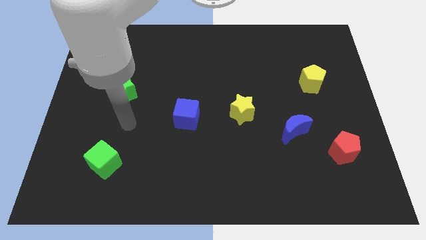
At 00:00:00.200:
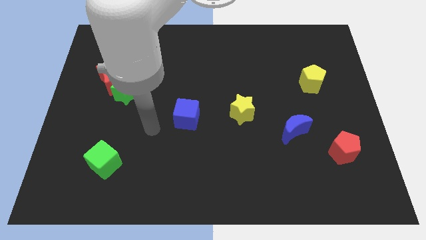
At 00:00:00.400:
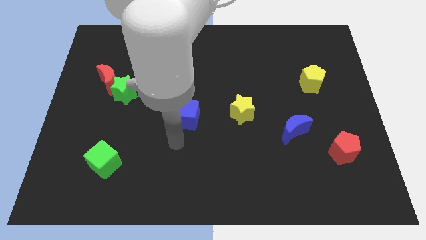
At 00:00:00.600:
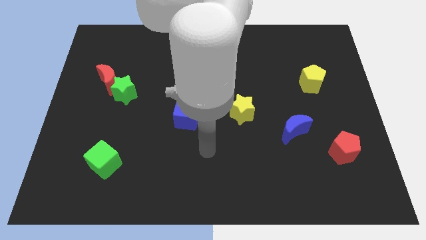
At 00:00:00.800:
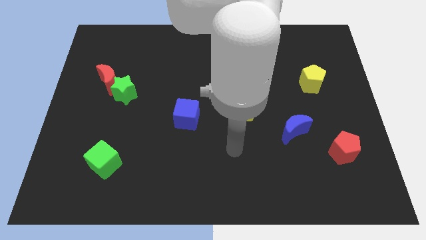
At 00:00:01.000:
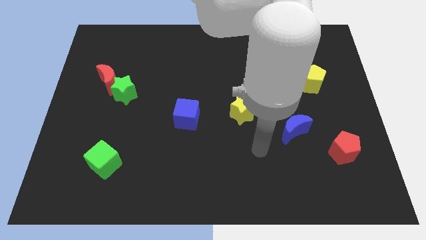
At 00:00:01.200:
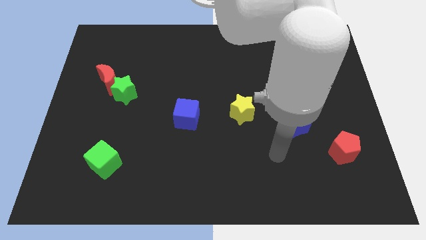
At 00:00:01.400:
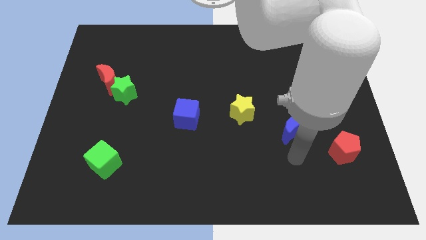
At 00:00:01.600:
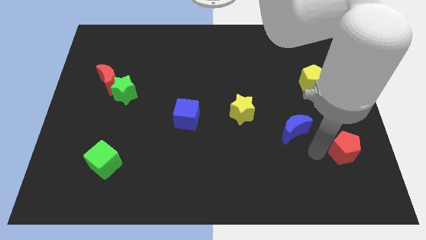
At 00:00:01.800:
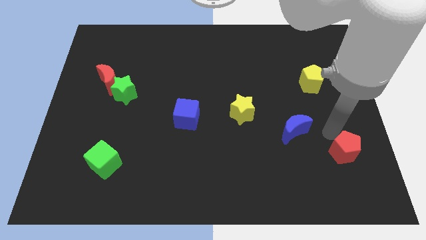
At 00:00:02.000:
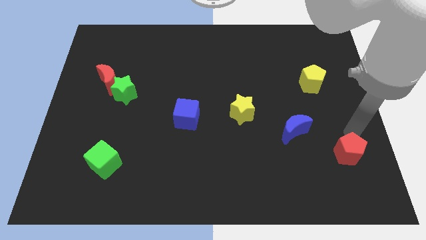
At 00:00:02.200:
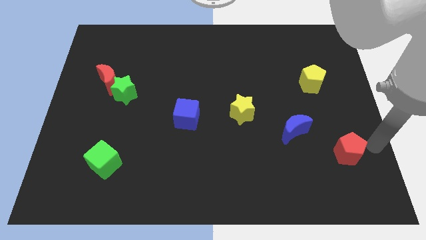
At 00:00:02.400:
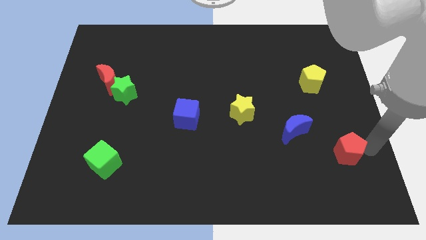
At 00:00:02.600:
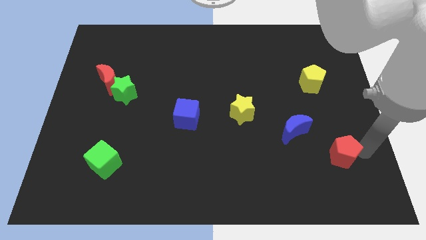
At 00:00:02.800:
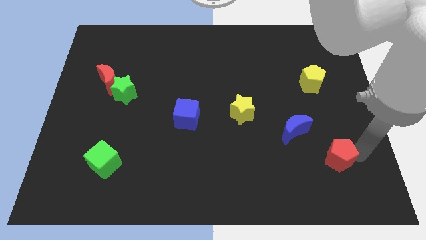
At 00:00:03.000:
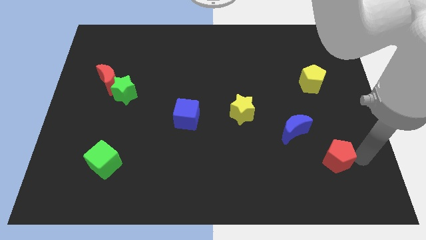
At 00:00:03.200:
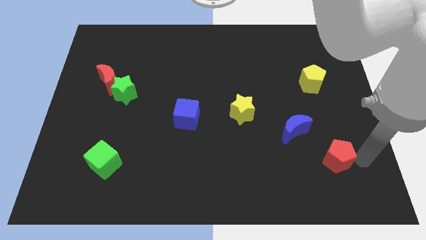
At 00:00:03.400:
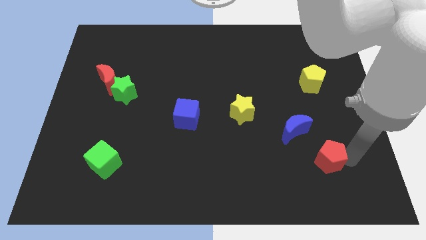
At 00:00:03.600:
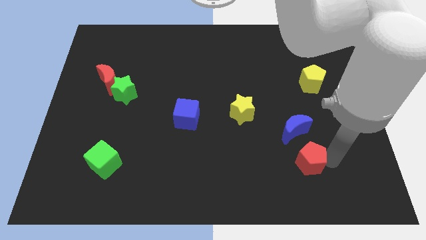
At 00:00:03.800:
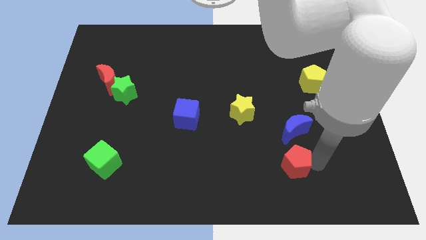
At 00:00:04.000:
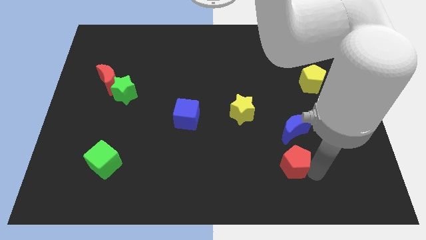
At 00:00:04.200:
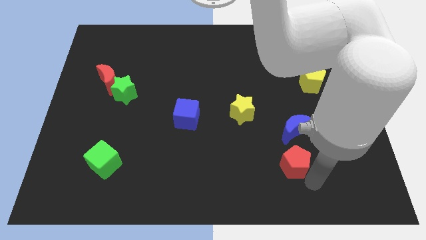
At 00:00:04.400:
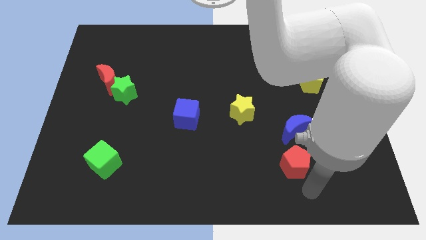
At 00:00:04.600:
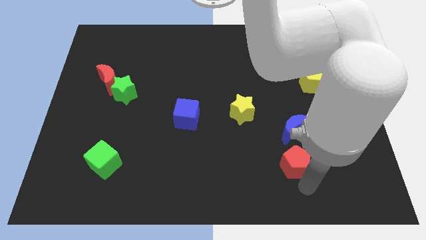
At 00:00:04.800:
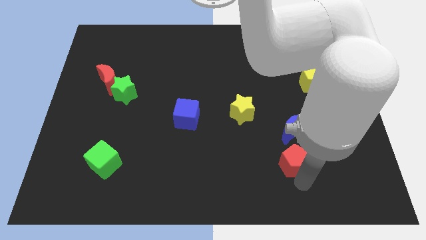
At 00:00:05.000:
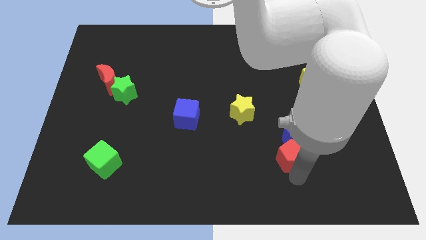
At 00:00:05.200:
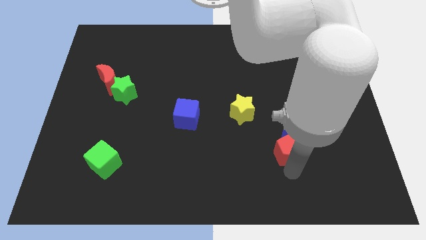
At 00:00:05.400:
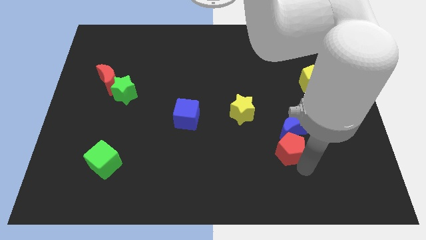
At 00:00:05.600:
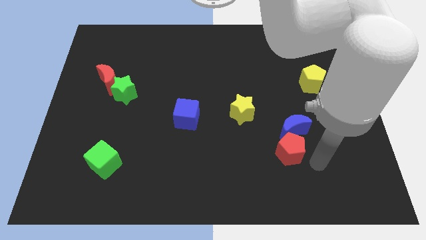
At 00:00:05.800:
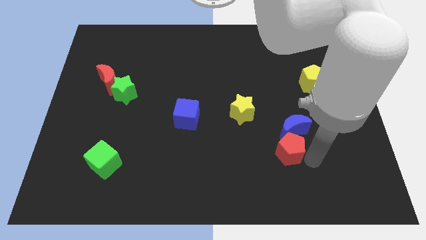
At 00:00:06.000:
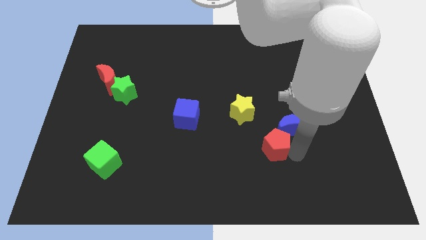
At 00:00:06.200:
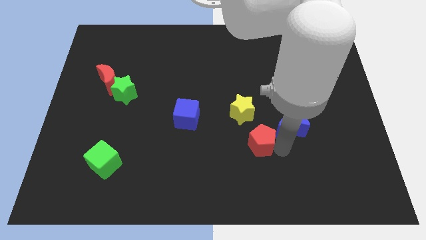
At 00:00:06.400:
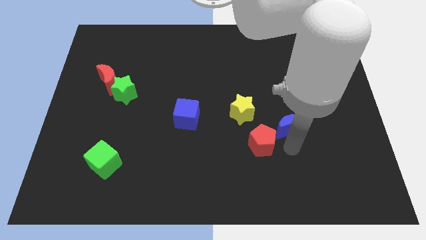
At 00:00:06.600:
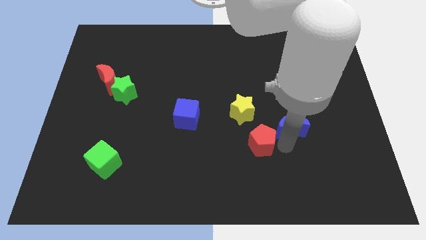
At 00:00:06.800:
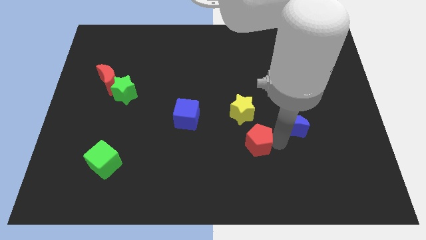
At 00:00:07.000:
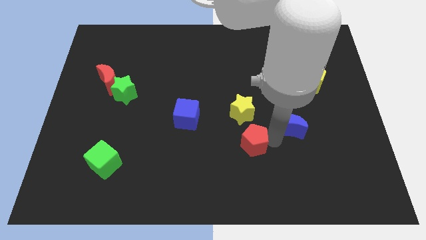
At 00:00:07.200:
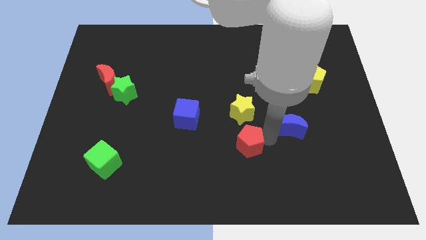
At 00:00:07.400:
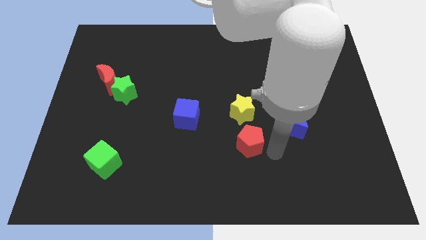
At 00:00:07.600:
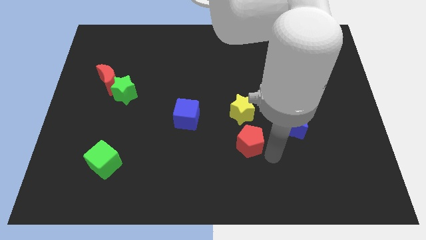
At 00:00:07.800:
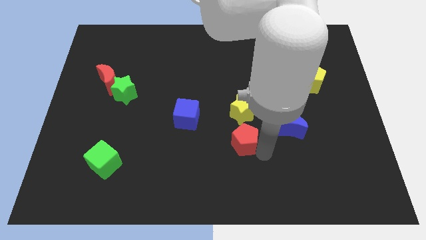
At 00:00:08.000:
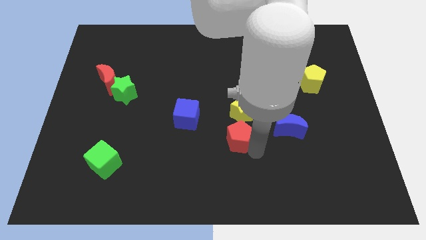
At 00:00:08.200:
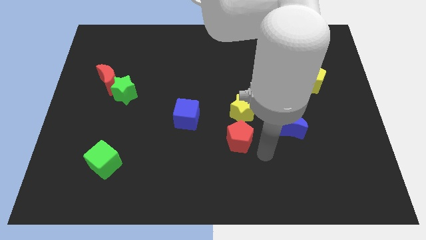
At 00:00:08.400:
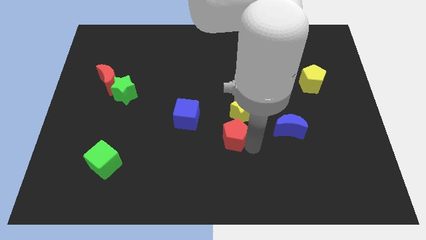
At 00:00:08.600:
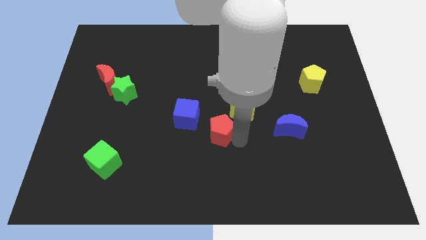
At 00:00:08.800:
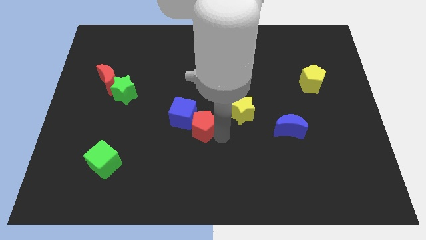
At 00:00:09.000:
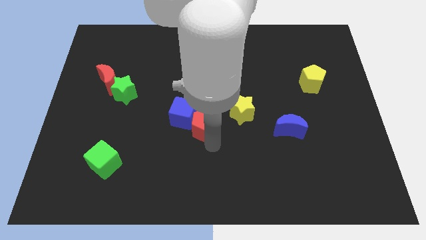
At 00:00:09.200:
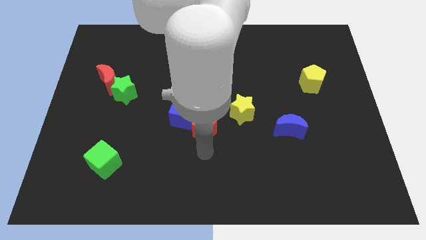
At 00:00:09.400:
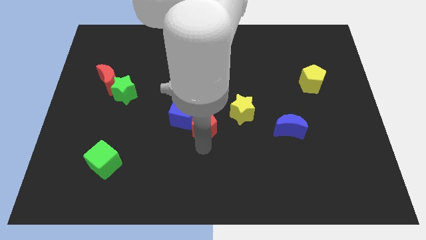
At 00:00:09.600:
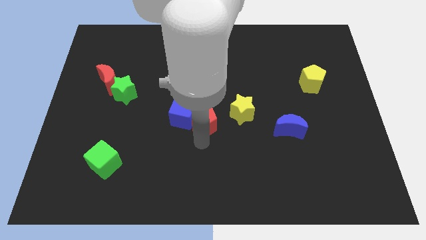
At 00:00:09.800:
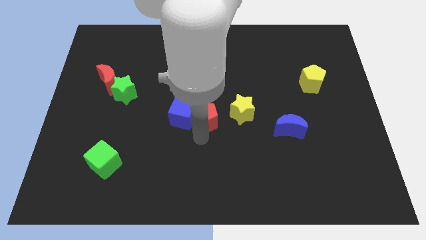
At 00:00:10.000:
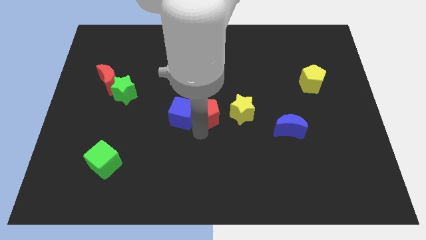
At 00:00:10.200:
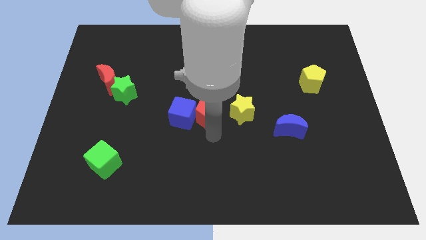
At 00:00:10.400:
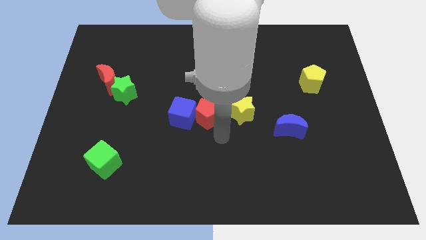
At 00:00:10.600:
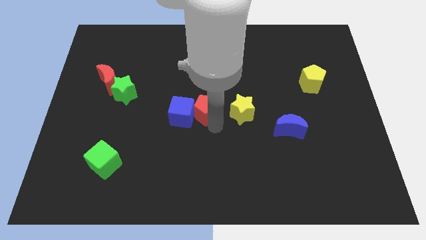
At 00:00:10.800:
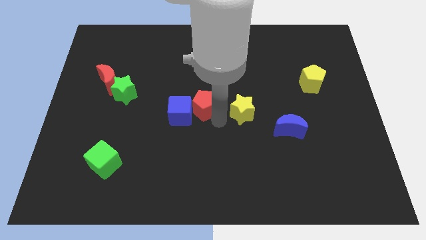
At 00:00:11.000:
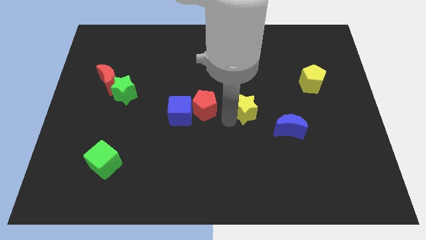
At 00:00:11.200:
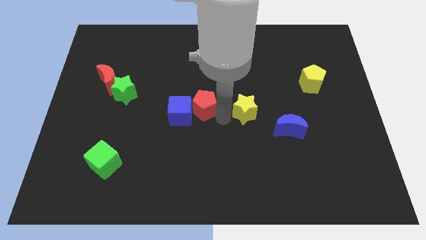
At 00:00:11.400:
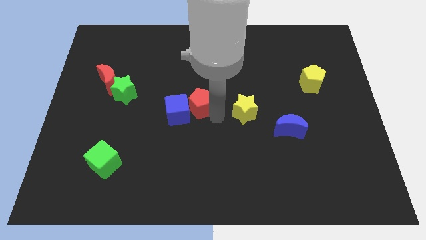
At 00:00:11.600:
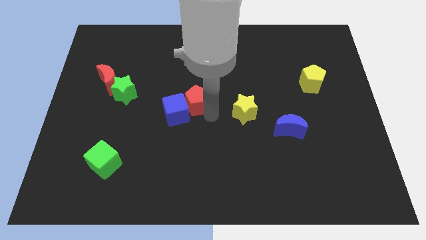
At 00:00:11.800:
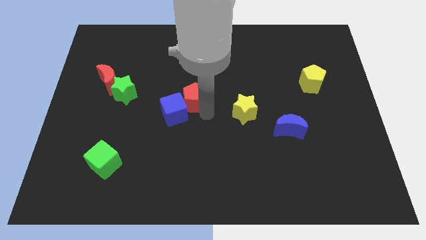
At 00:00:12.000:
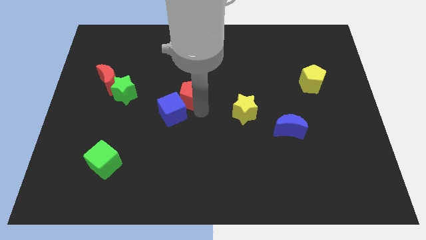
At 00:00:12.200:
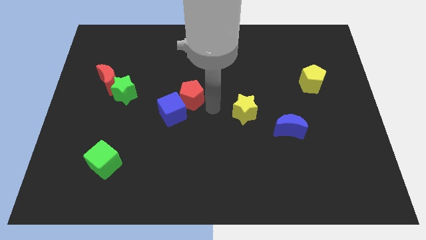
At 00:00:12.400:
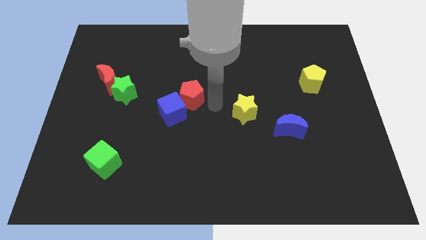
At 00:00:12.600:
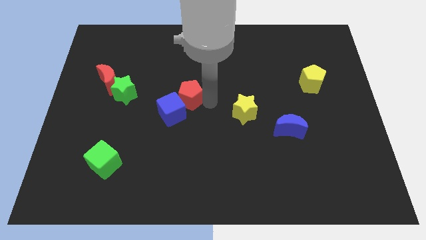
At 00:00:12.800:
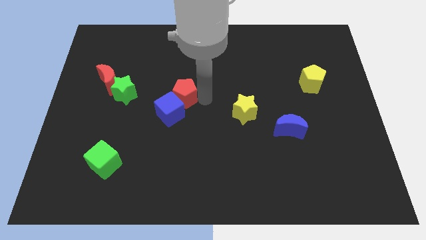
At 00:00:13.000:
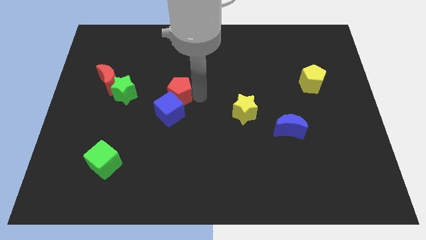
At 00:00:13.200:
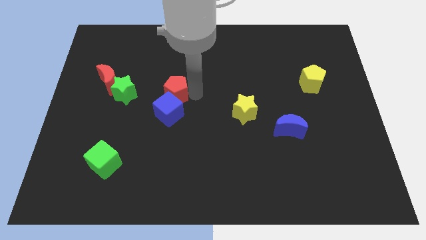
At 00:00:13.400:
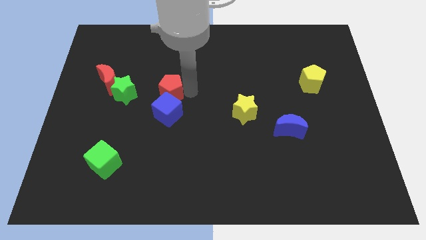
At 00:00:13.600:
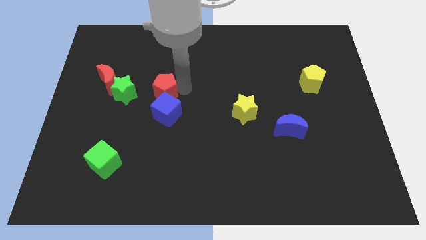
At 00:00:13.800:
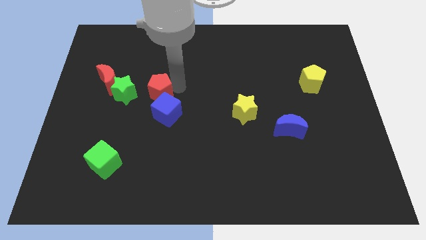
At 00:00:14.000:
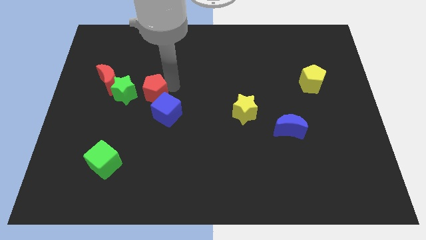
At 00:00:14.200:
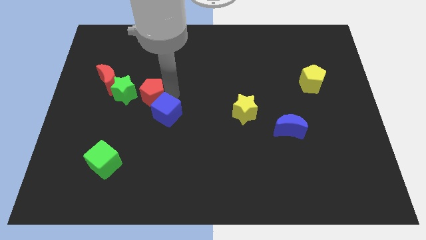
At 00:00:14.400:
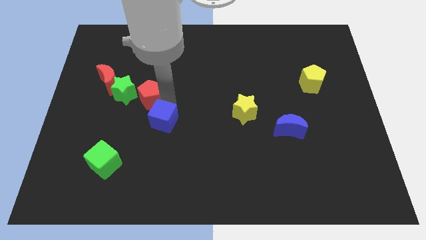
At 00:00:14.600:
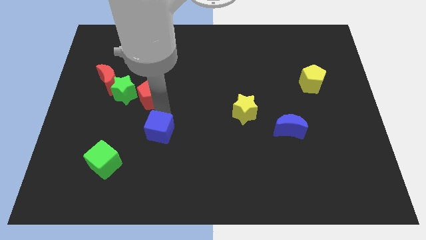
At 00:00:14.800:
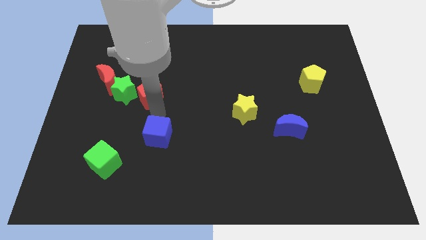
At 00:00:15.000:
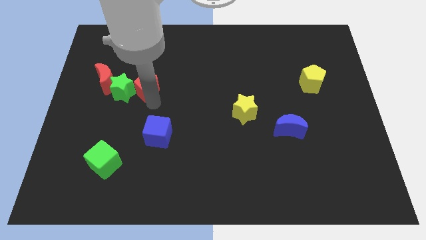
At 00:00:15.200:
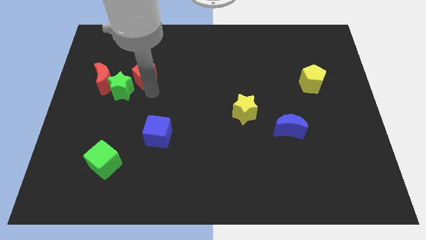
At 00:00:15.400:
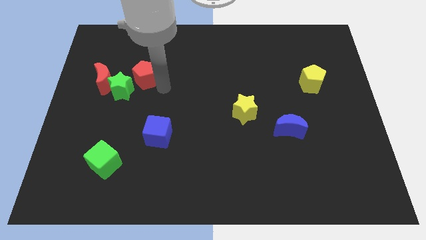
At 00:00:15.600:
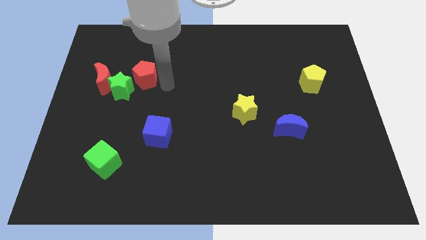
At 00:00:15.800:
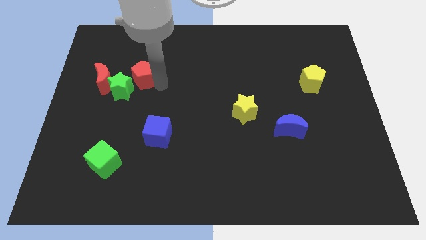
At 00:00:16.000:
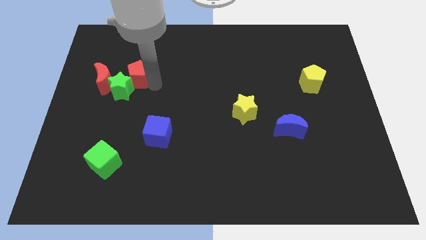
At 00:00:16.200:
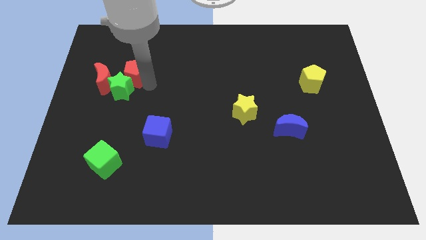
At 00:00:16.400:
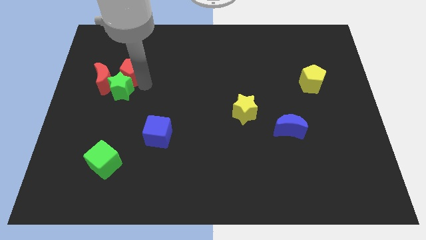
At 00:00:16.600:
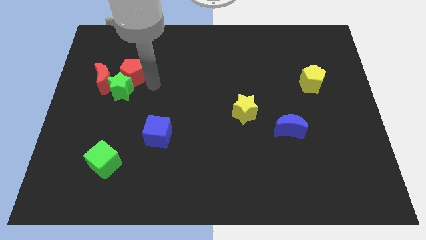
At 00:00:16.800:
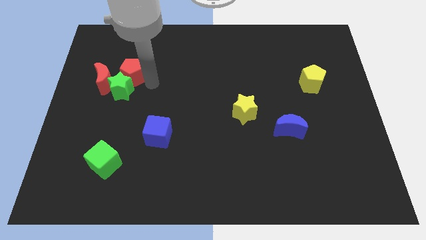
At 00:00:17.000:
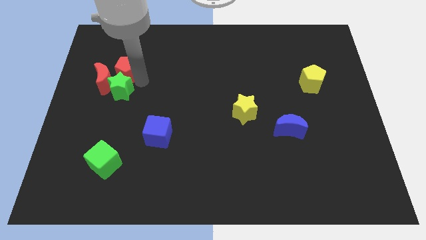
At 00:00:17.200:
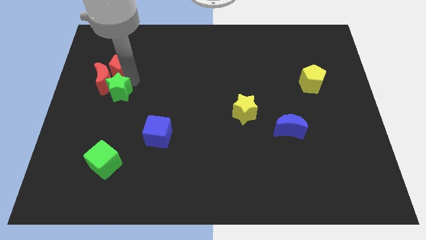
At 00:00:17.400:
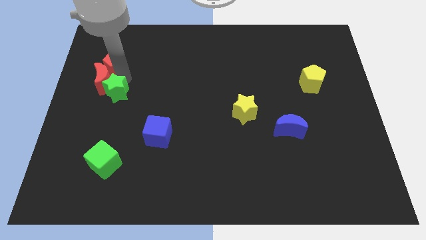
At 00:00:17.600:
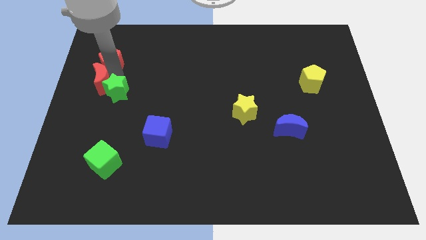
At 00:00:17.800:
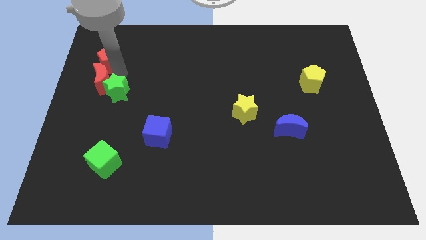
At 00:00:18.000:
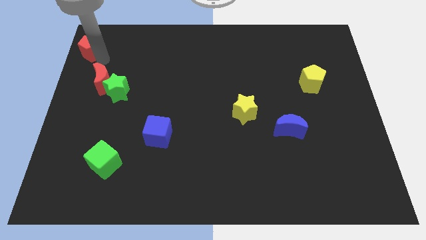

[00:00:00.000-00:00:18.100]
slide the red pentagon to the top left
